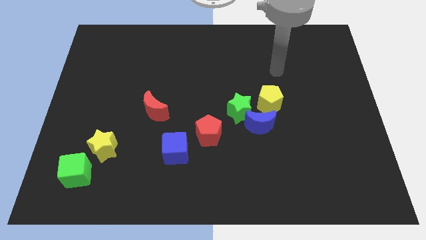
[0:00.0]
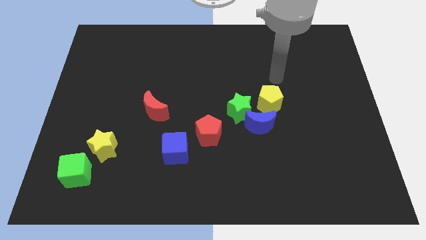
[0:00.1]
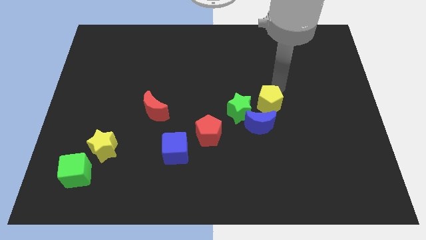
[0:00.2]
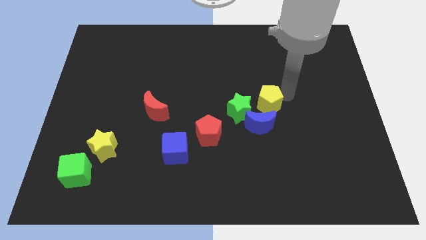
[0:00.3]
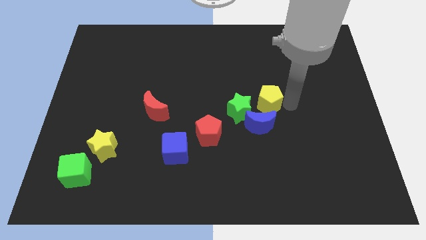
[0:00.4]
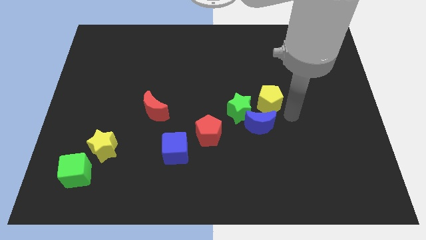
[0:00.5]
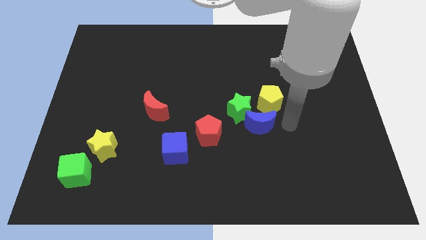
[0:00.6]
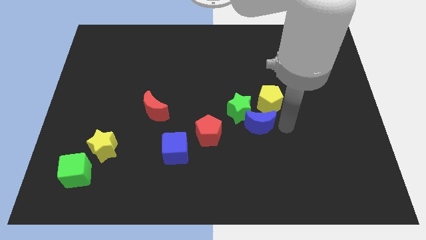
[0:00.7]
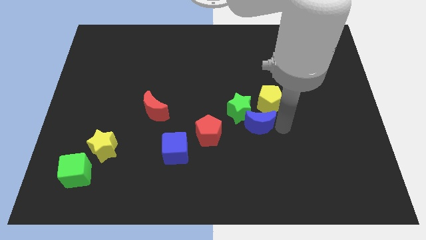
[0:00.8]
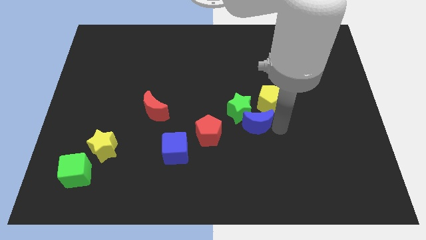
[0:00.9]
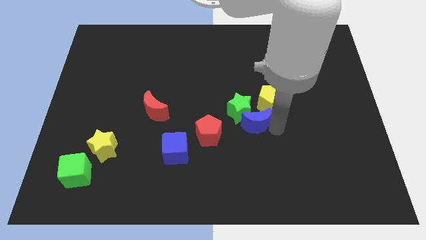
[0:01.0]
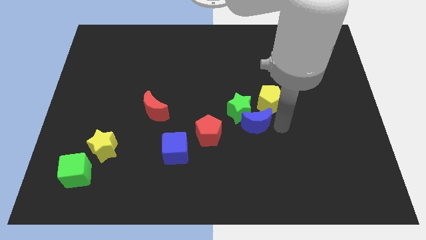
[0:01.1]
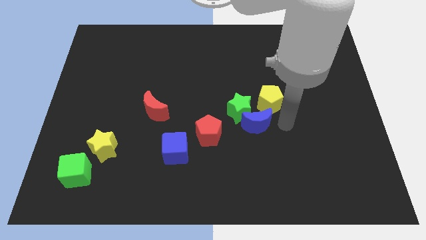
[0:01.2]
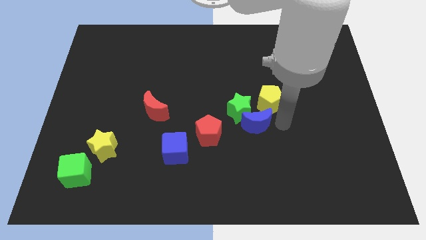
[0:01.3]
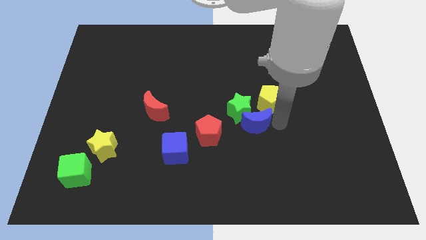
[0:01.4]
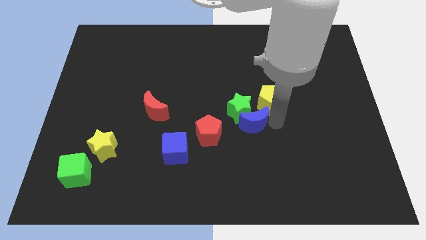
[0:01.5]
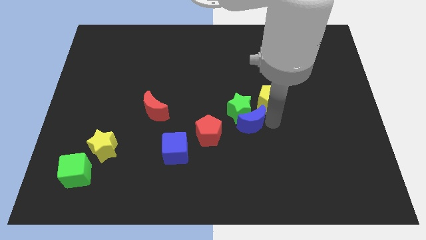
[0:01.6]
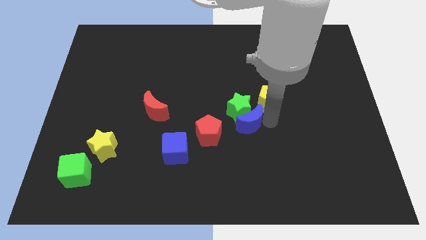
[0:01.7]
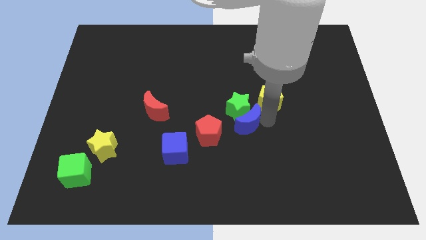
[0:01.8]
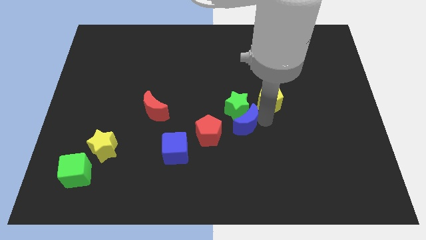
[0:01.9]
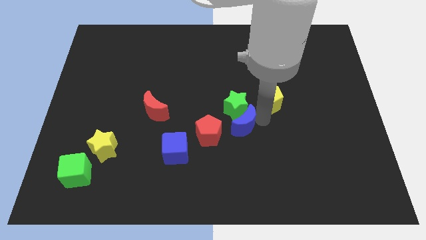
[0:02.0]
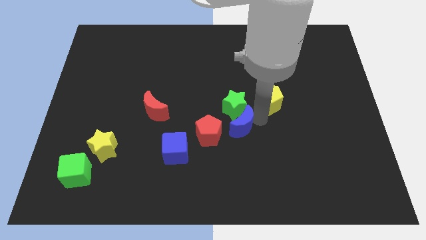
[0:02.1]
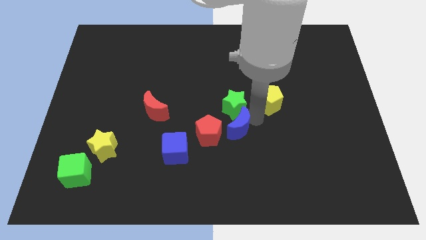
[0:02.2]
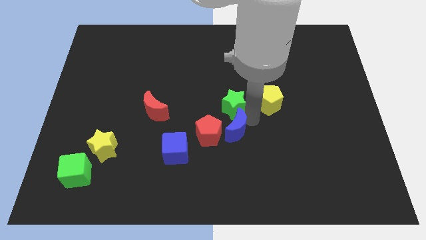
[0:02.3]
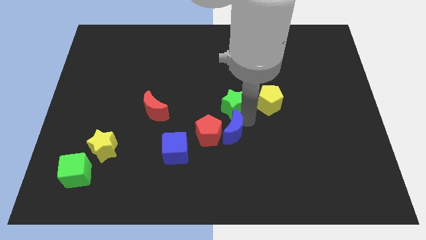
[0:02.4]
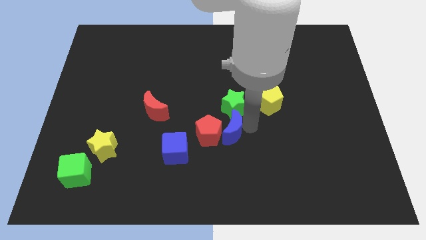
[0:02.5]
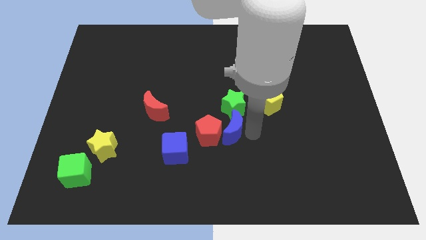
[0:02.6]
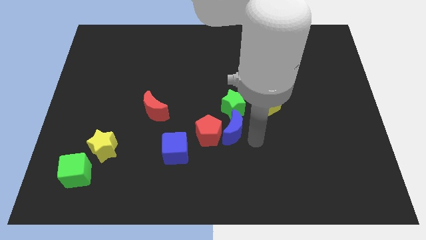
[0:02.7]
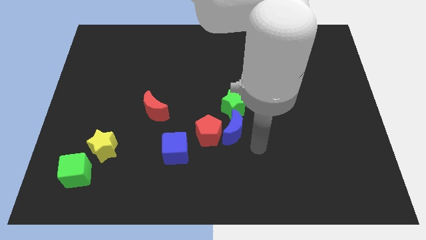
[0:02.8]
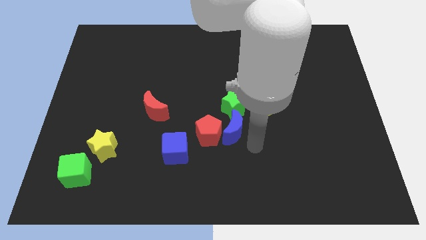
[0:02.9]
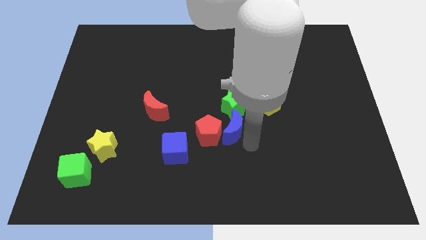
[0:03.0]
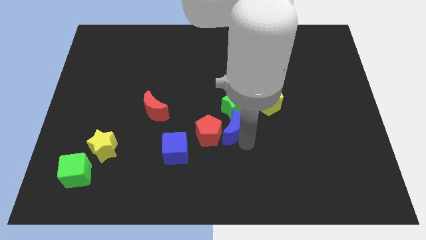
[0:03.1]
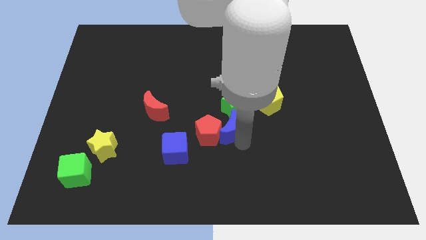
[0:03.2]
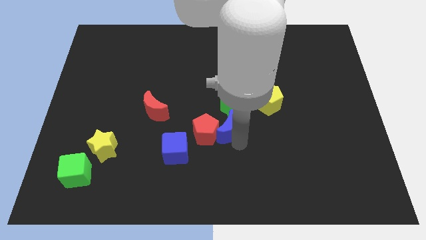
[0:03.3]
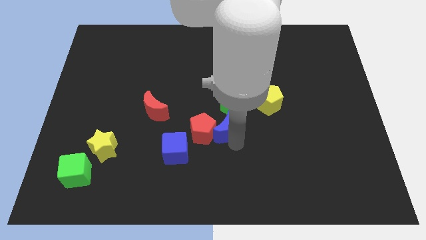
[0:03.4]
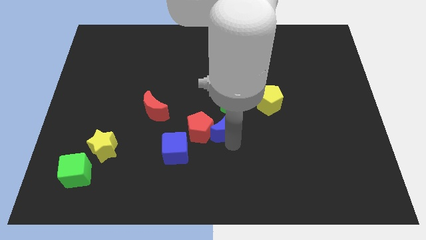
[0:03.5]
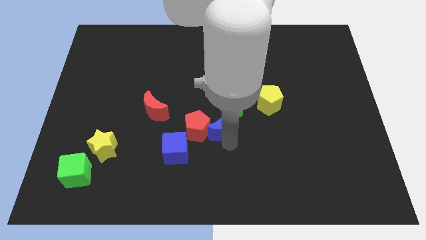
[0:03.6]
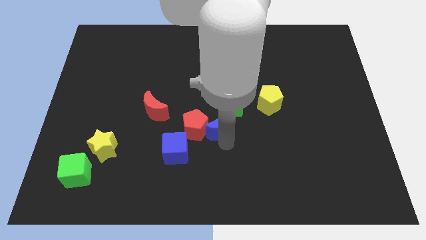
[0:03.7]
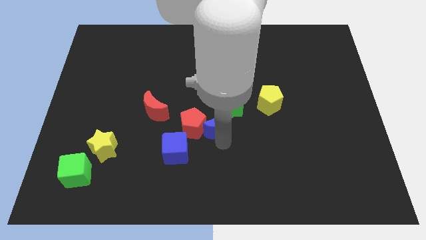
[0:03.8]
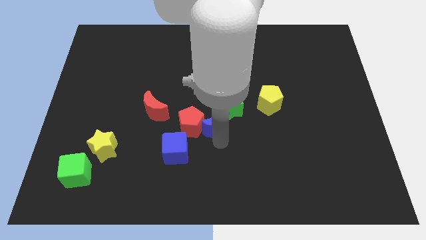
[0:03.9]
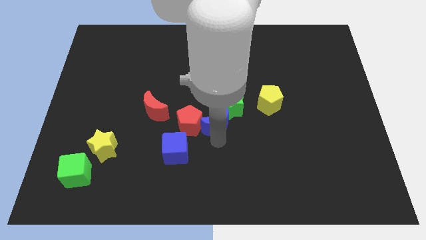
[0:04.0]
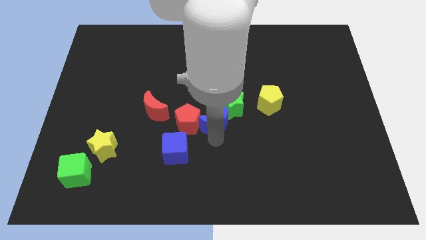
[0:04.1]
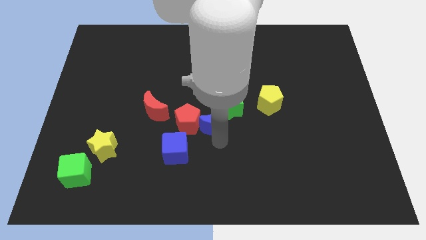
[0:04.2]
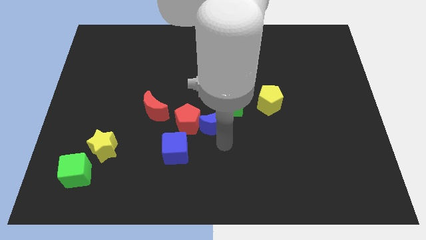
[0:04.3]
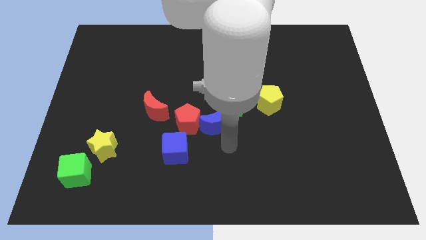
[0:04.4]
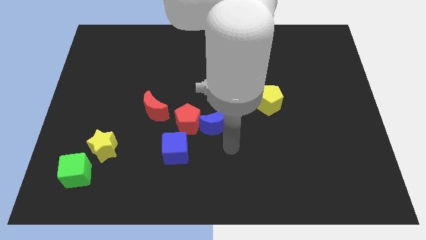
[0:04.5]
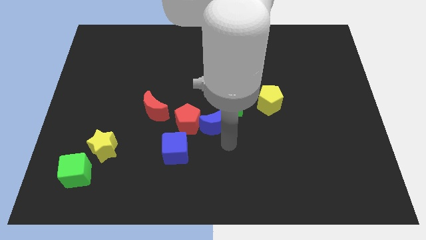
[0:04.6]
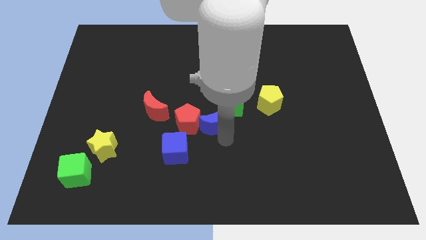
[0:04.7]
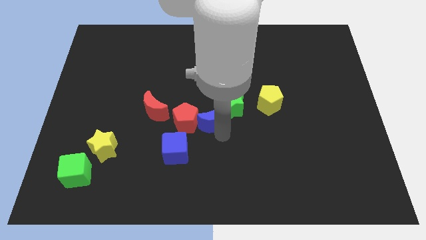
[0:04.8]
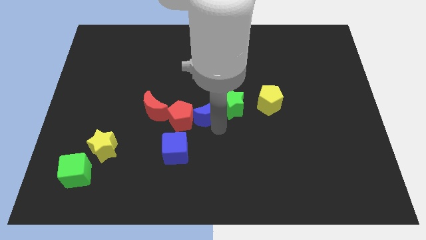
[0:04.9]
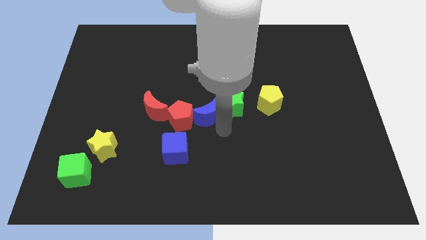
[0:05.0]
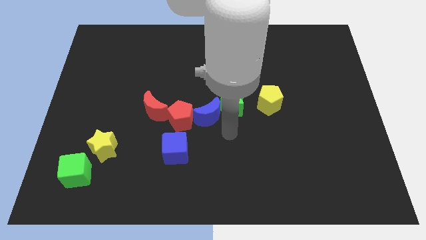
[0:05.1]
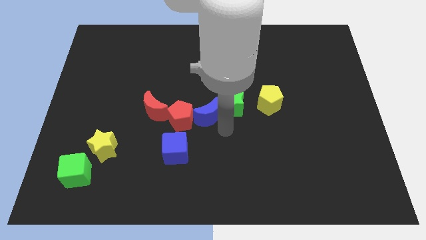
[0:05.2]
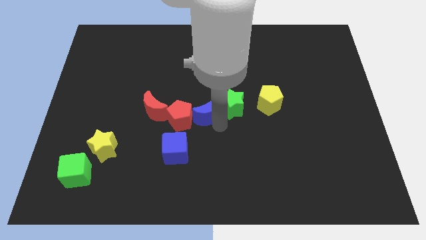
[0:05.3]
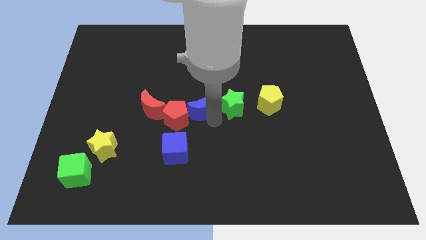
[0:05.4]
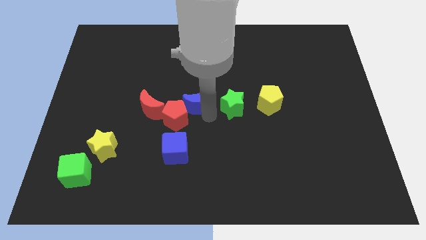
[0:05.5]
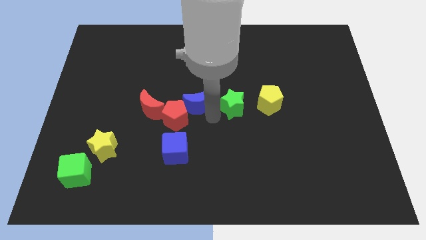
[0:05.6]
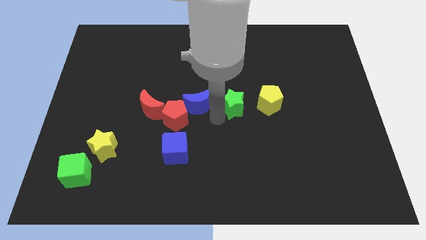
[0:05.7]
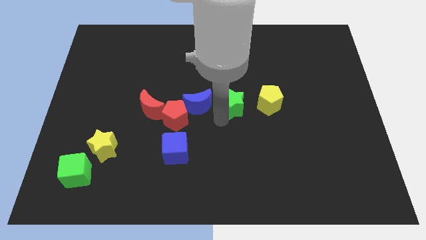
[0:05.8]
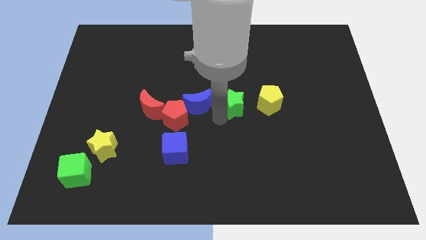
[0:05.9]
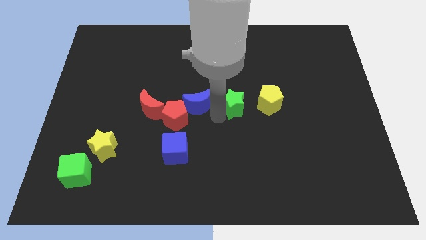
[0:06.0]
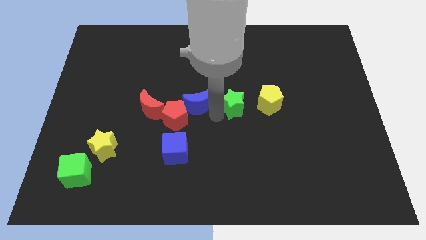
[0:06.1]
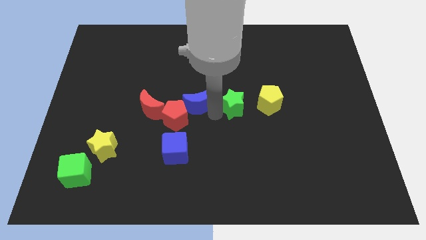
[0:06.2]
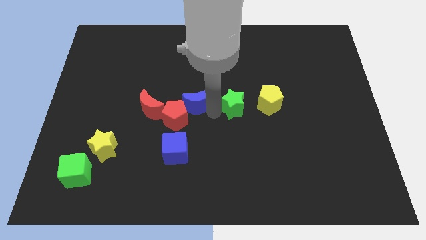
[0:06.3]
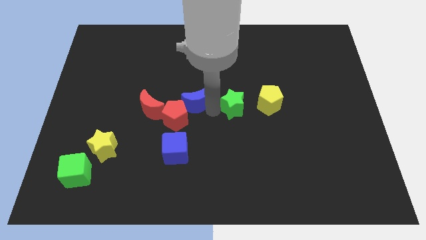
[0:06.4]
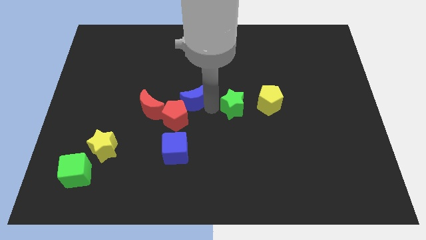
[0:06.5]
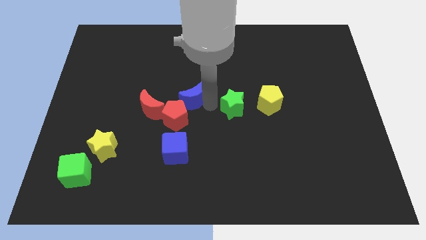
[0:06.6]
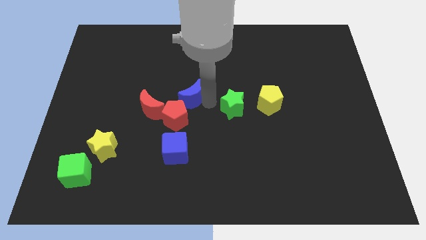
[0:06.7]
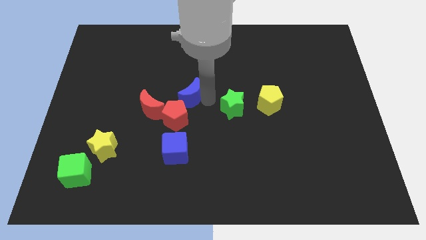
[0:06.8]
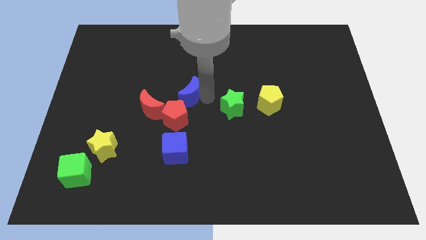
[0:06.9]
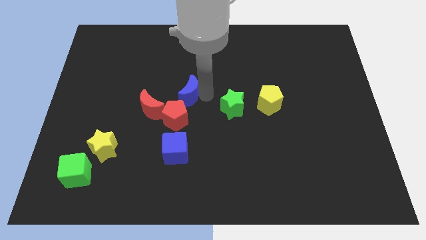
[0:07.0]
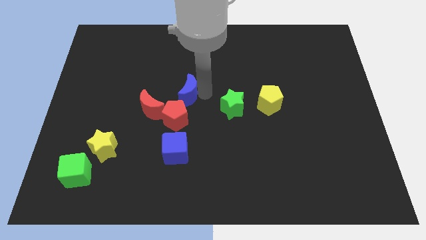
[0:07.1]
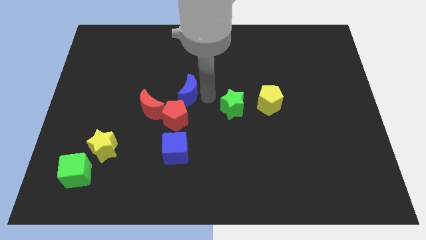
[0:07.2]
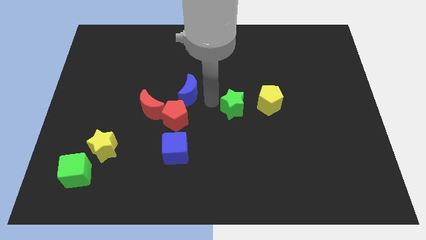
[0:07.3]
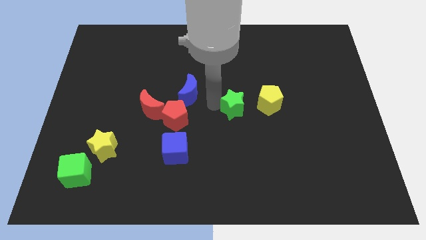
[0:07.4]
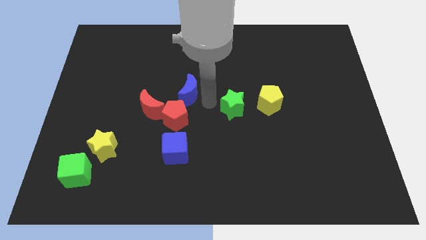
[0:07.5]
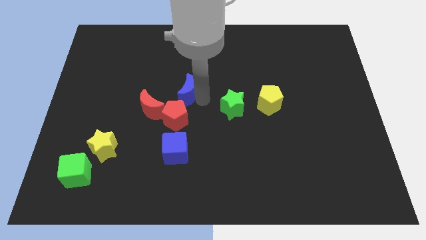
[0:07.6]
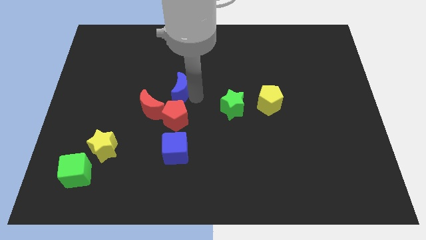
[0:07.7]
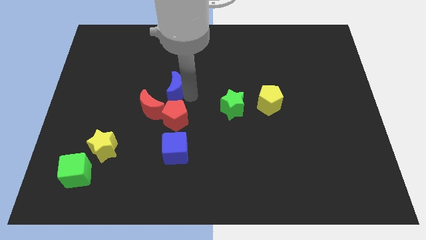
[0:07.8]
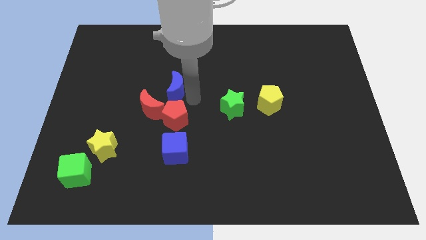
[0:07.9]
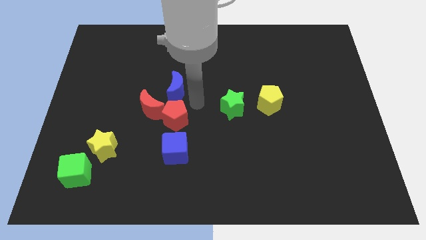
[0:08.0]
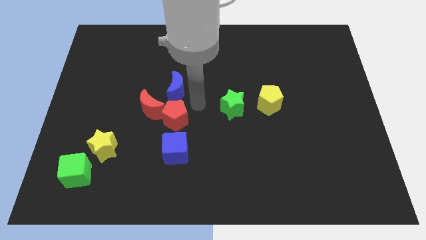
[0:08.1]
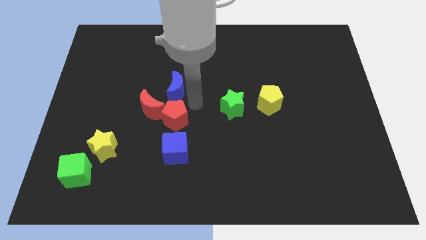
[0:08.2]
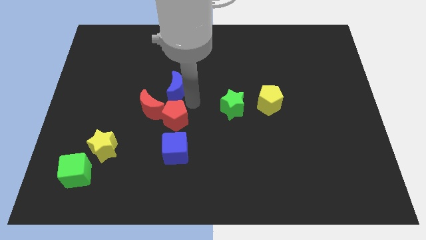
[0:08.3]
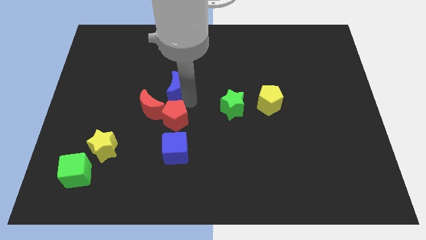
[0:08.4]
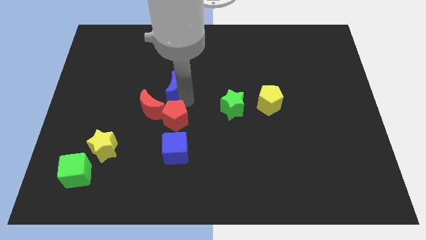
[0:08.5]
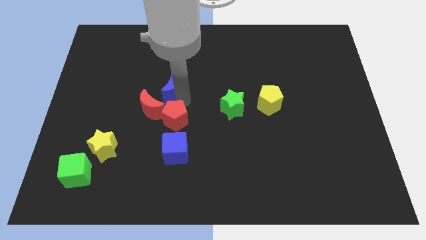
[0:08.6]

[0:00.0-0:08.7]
push the blue moon to the top of the red moon
